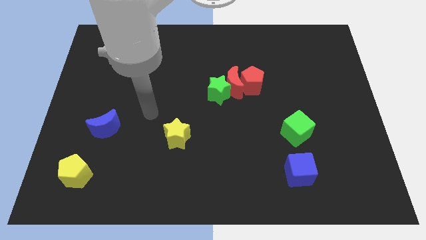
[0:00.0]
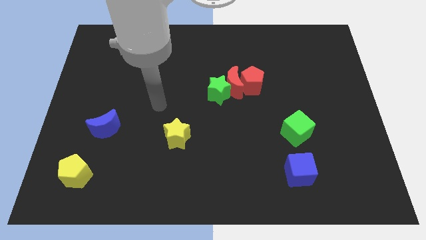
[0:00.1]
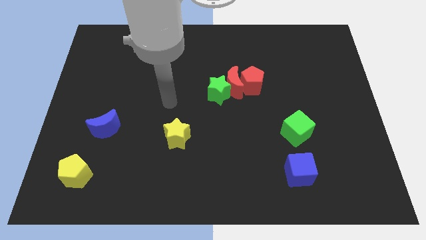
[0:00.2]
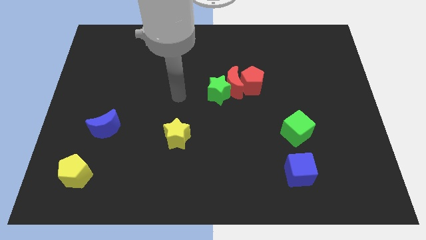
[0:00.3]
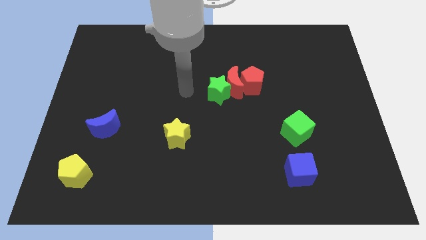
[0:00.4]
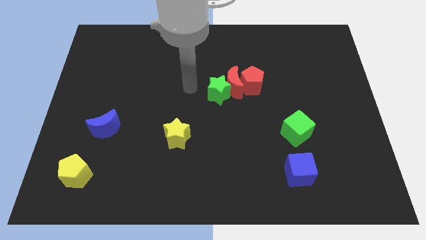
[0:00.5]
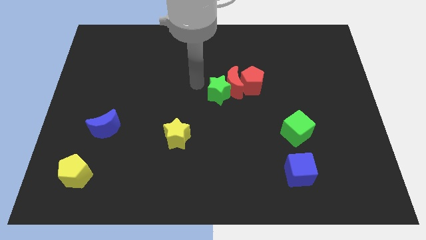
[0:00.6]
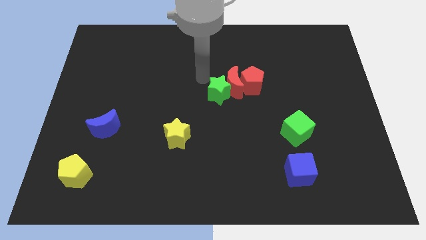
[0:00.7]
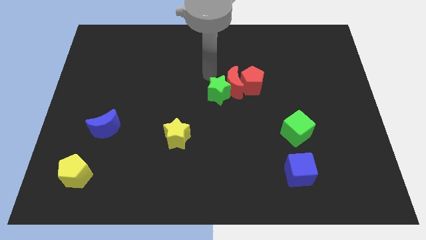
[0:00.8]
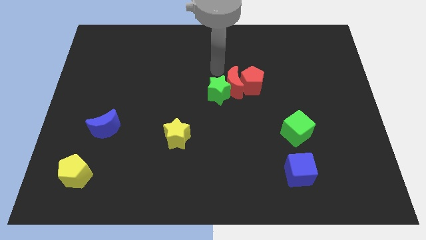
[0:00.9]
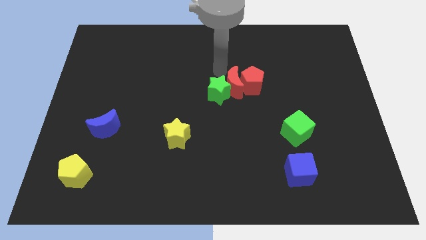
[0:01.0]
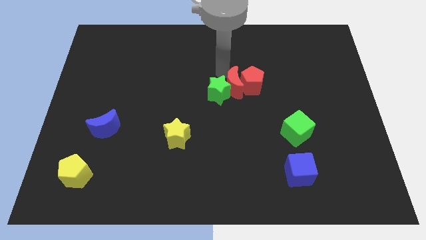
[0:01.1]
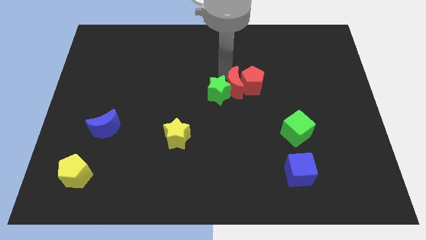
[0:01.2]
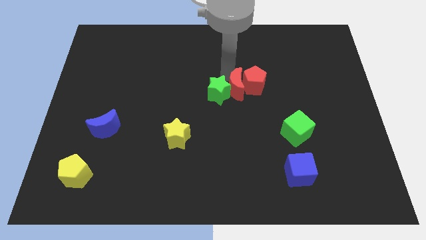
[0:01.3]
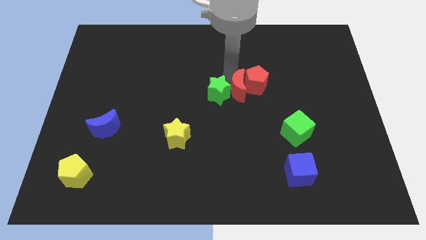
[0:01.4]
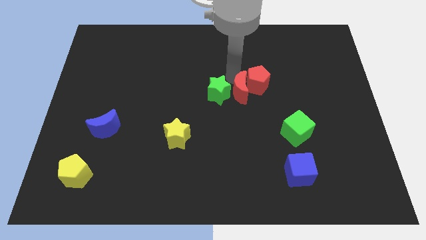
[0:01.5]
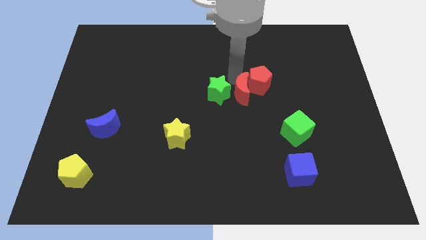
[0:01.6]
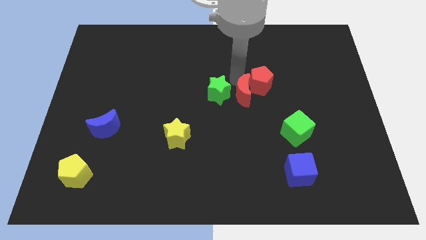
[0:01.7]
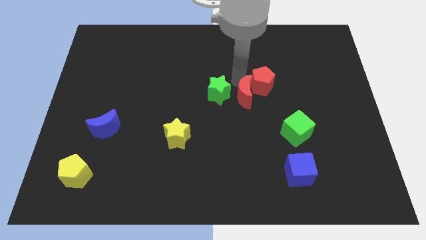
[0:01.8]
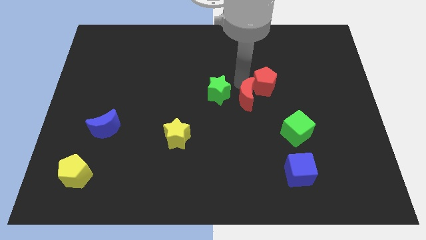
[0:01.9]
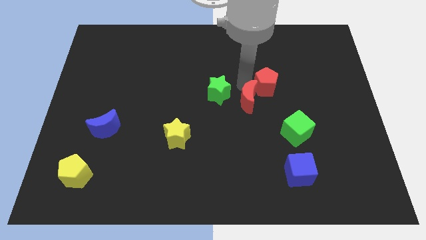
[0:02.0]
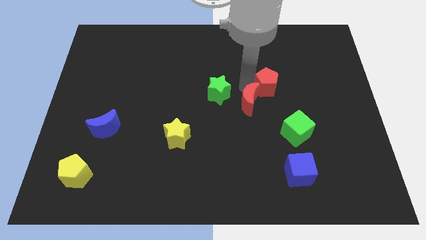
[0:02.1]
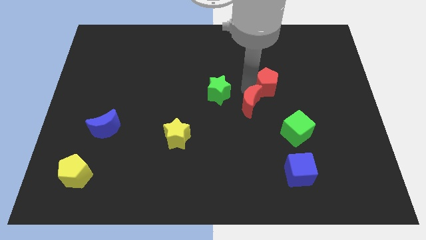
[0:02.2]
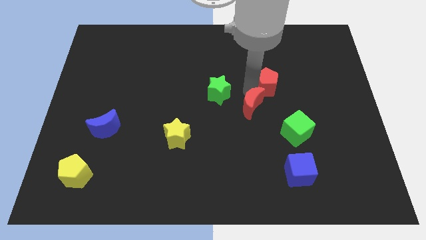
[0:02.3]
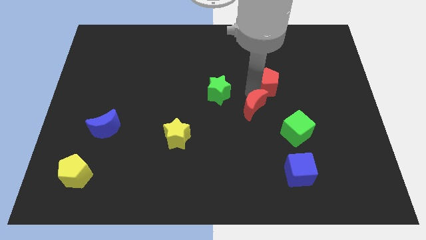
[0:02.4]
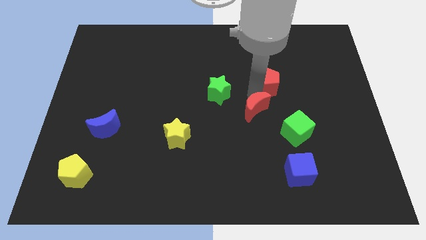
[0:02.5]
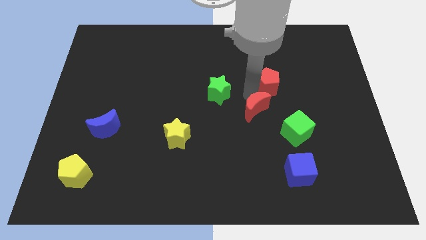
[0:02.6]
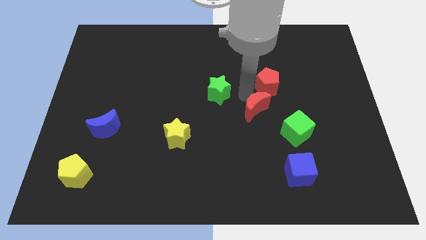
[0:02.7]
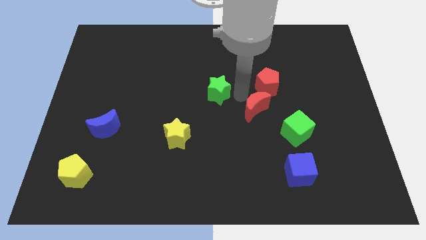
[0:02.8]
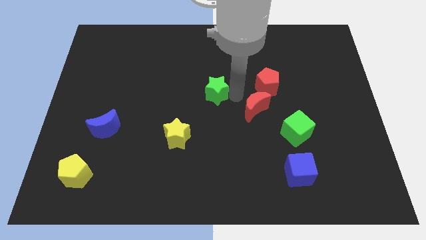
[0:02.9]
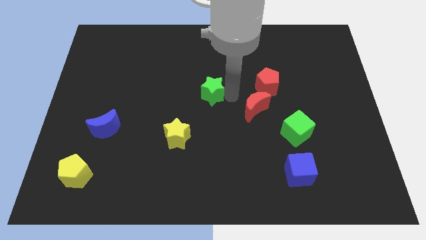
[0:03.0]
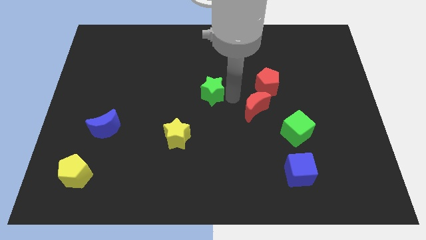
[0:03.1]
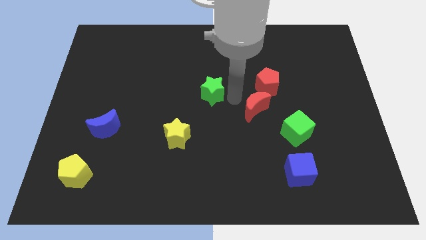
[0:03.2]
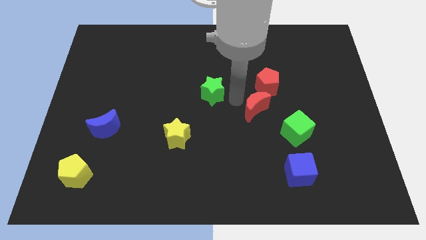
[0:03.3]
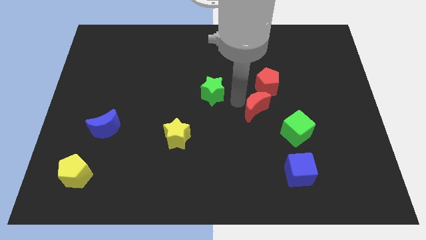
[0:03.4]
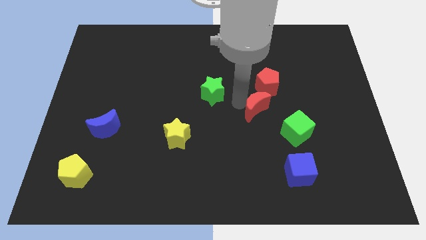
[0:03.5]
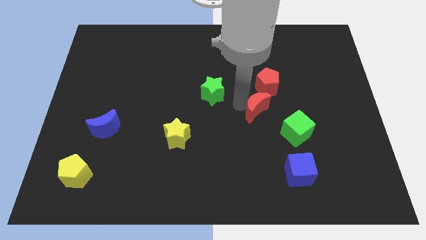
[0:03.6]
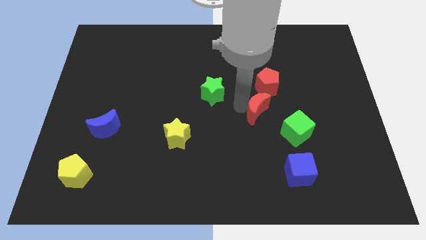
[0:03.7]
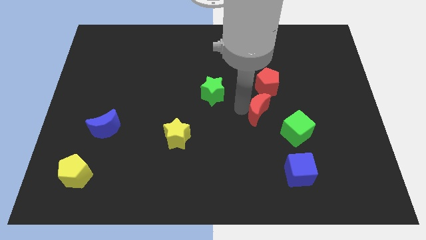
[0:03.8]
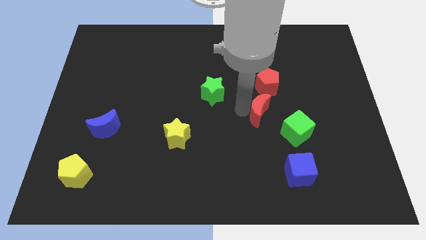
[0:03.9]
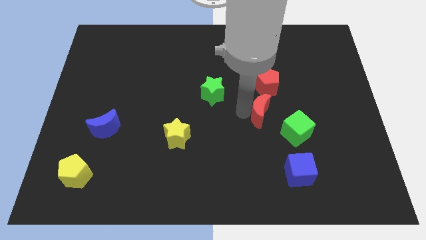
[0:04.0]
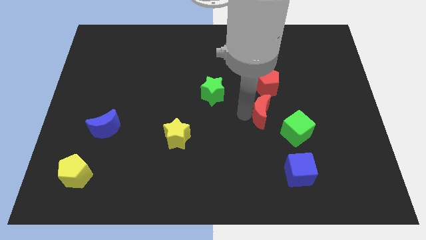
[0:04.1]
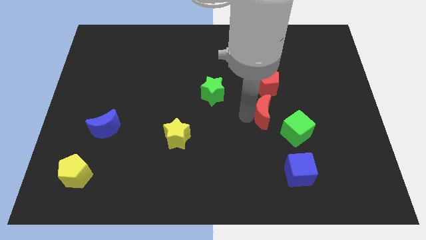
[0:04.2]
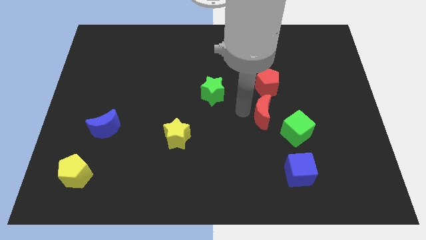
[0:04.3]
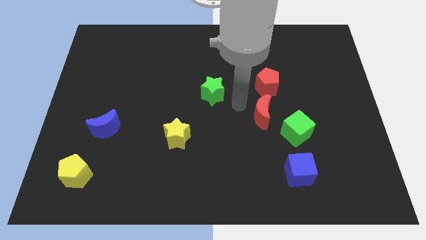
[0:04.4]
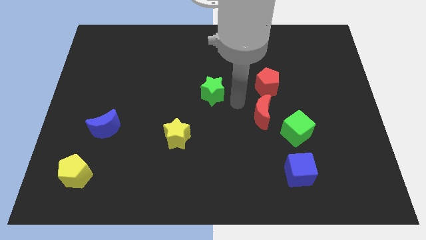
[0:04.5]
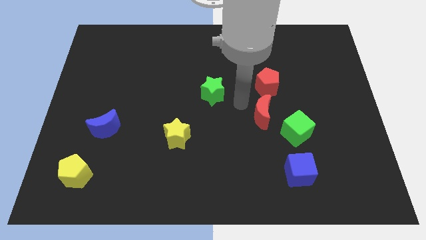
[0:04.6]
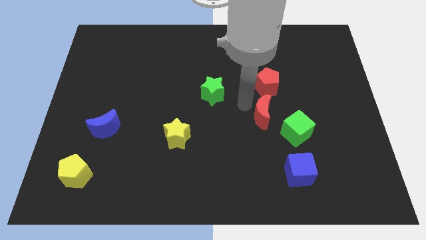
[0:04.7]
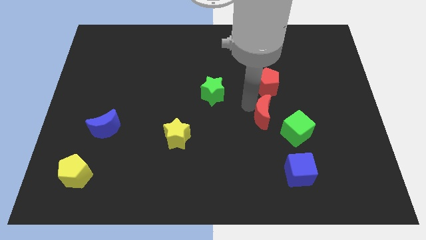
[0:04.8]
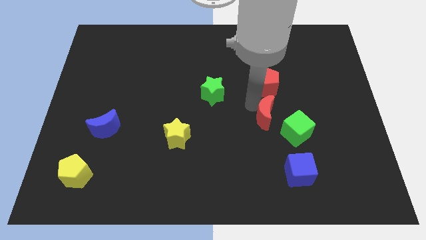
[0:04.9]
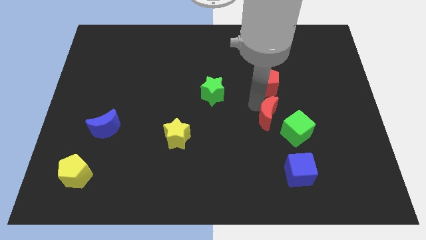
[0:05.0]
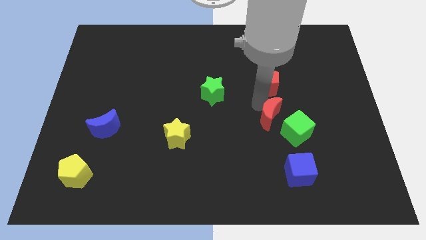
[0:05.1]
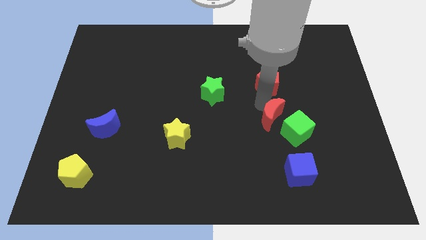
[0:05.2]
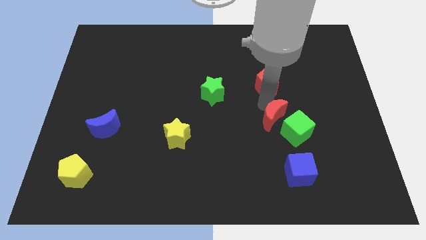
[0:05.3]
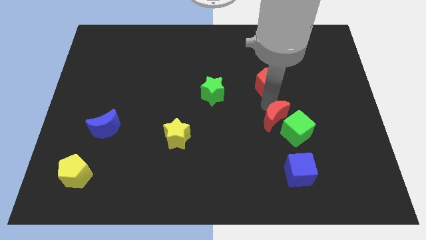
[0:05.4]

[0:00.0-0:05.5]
move the red moon to the green cube

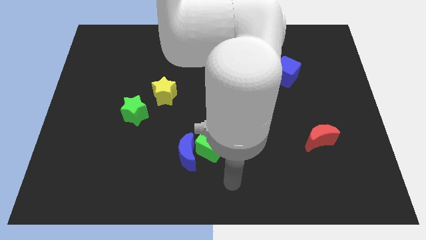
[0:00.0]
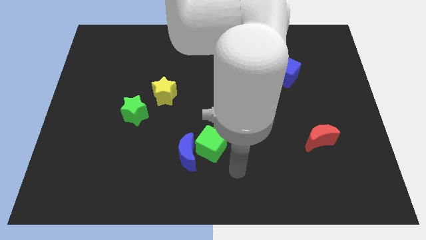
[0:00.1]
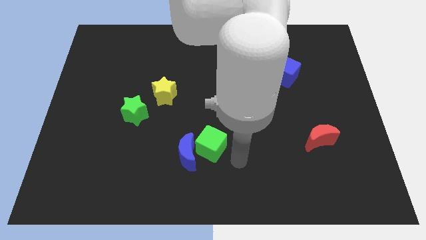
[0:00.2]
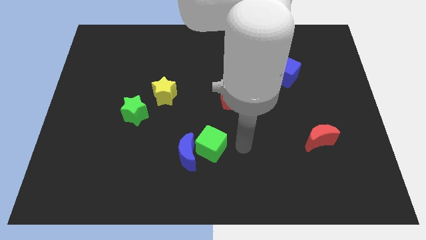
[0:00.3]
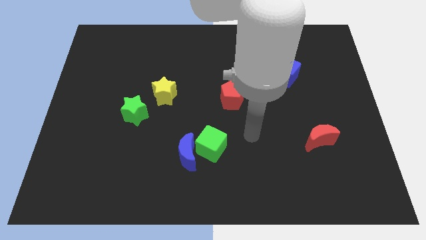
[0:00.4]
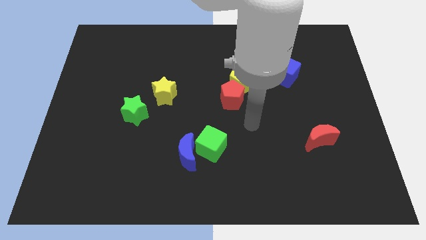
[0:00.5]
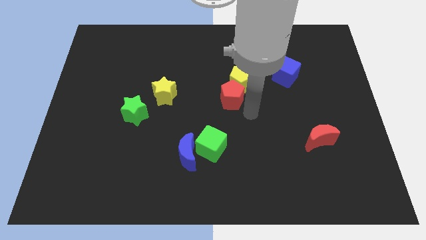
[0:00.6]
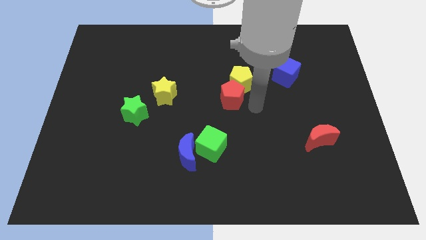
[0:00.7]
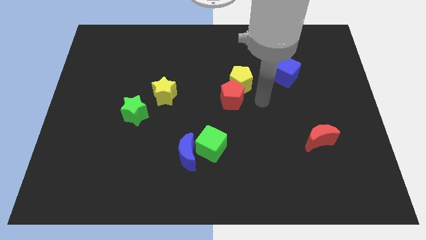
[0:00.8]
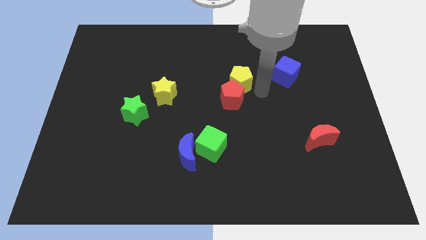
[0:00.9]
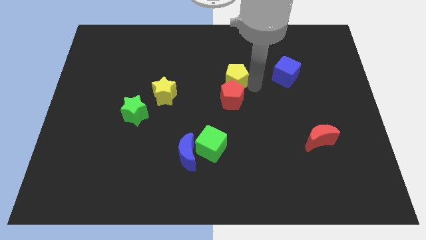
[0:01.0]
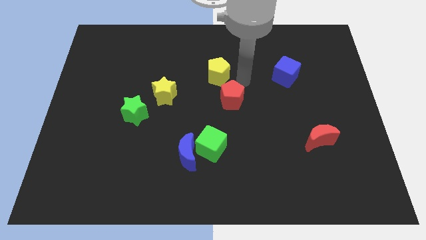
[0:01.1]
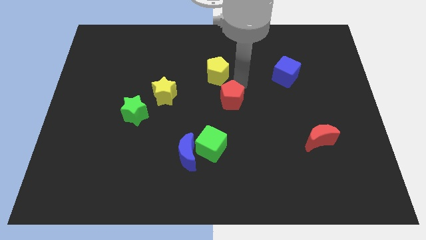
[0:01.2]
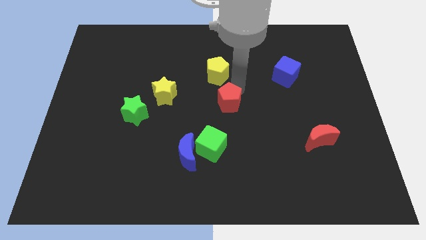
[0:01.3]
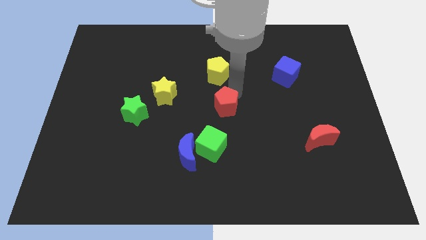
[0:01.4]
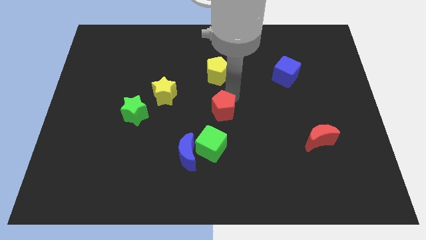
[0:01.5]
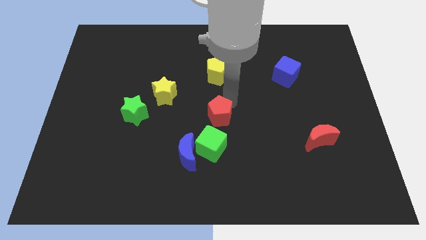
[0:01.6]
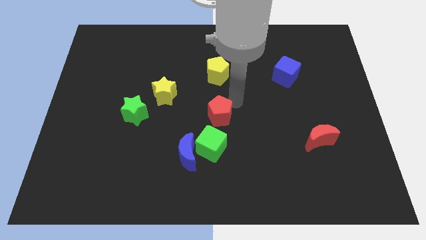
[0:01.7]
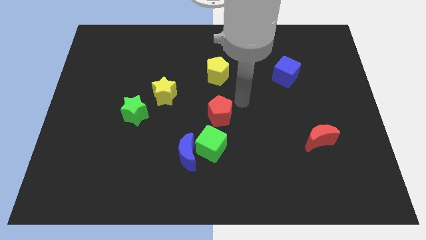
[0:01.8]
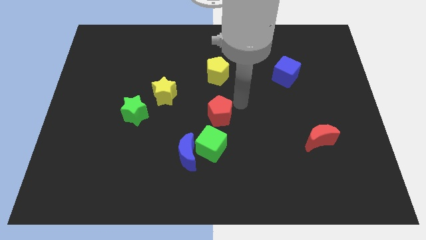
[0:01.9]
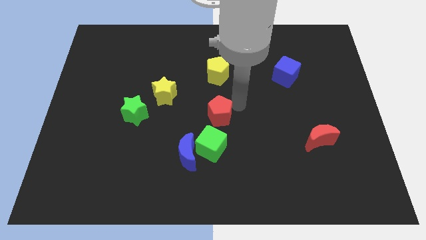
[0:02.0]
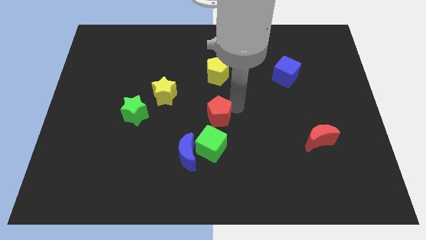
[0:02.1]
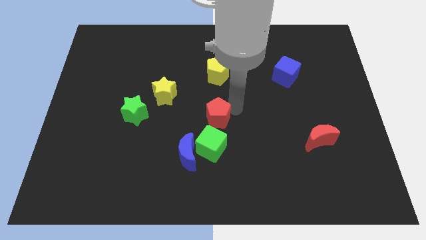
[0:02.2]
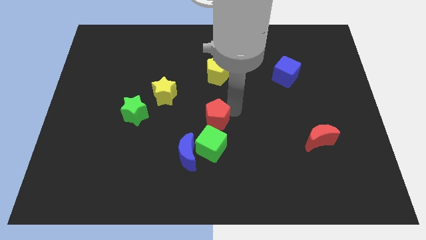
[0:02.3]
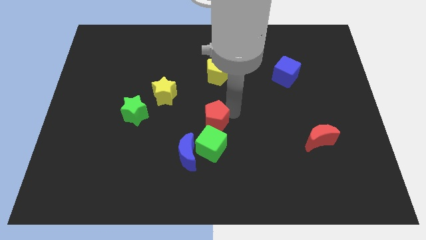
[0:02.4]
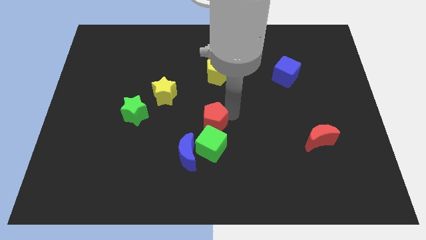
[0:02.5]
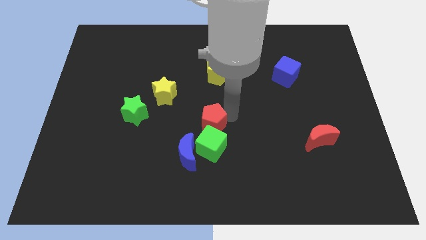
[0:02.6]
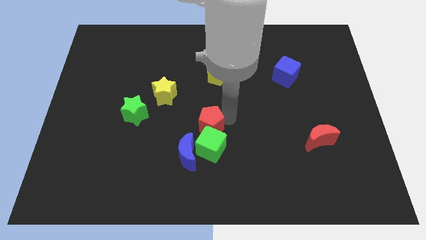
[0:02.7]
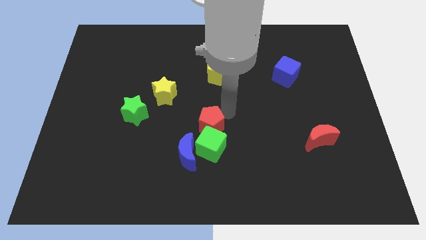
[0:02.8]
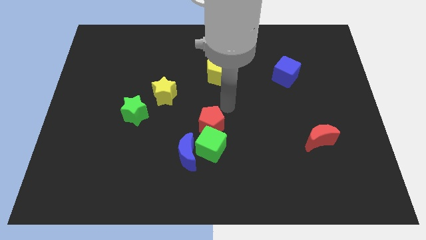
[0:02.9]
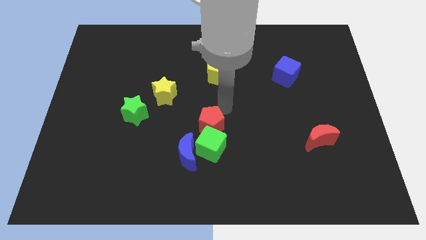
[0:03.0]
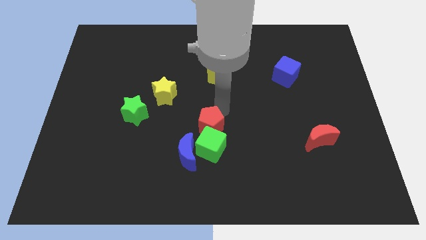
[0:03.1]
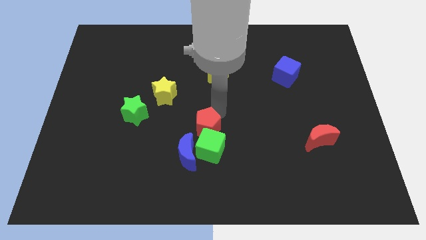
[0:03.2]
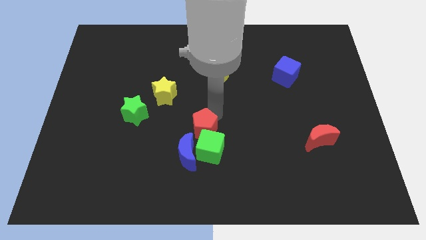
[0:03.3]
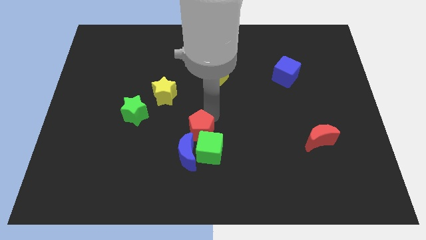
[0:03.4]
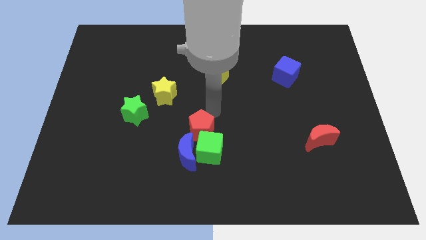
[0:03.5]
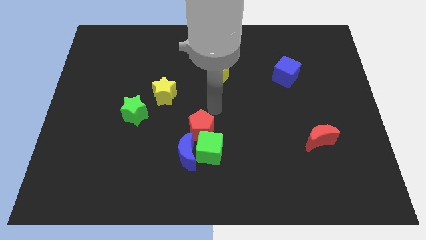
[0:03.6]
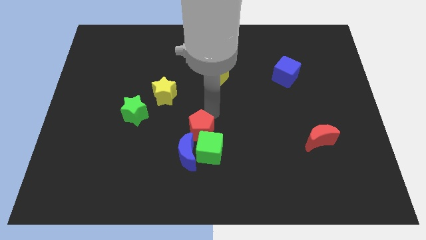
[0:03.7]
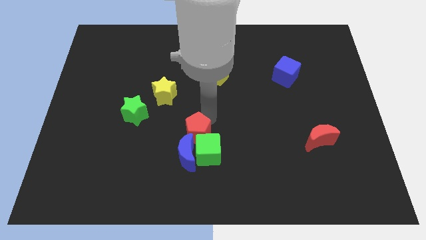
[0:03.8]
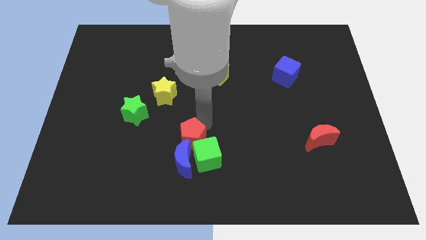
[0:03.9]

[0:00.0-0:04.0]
slide the red pentagon towards the blue moon
